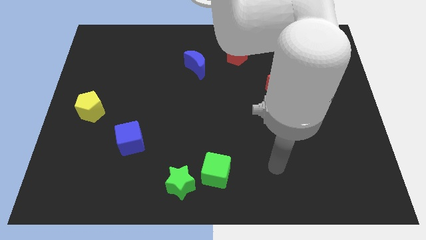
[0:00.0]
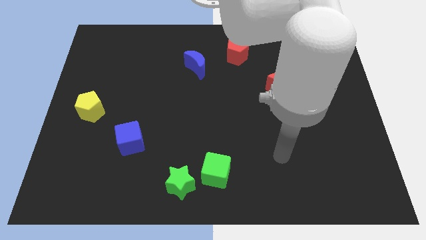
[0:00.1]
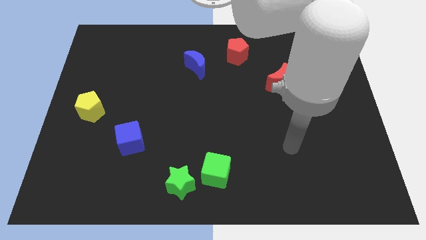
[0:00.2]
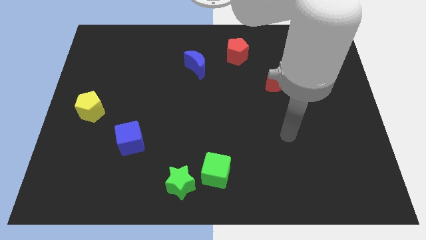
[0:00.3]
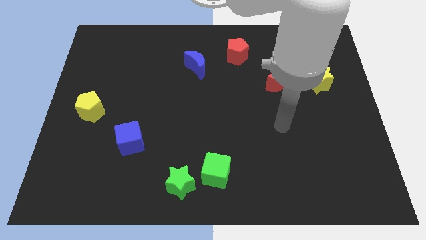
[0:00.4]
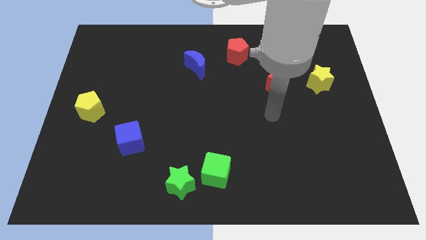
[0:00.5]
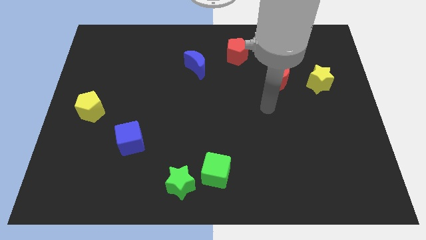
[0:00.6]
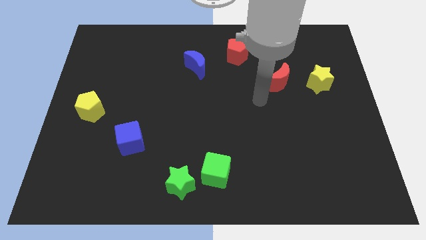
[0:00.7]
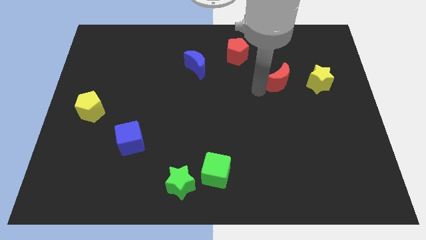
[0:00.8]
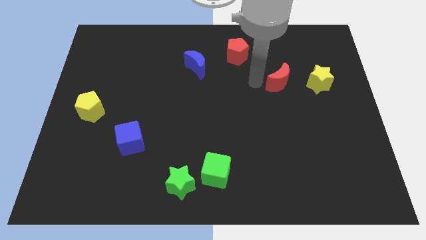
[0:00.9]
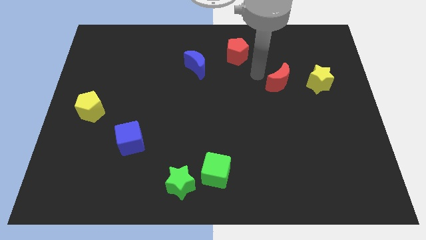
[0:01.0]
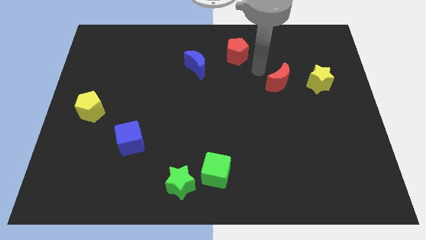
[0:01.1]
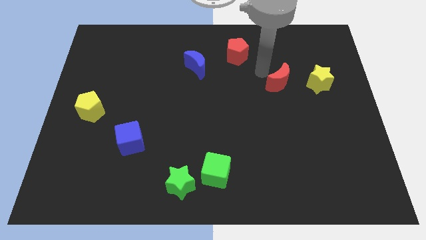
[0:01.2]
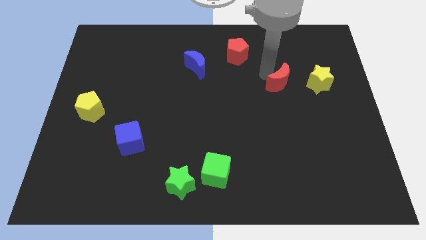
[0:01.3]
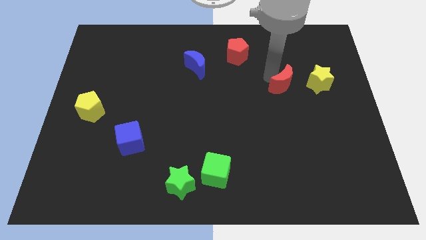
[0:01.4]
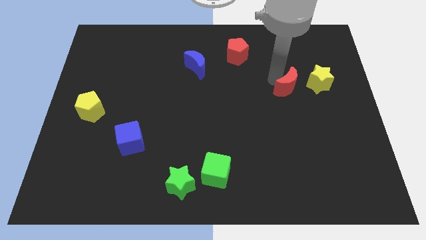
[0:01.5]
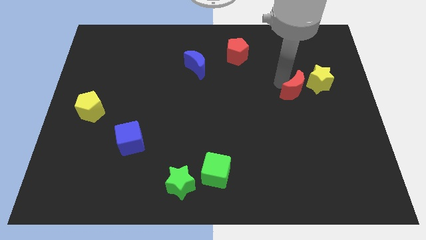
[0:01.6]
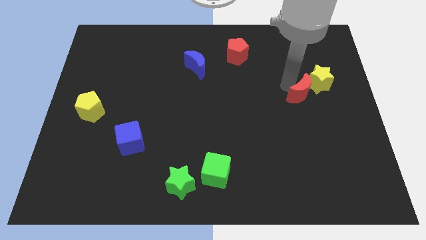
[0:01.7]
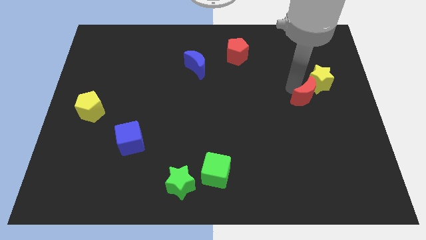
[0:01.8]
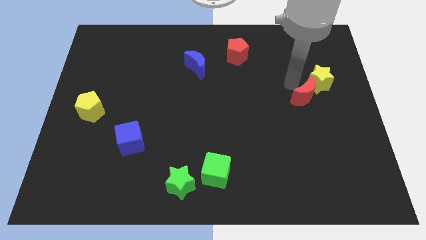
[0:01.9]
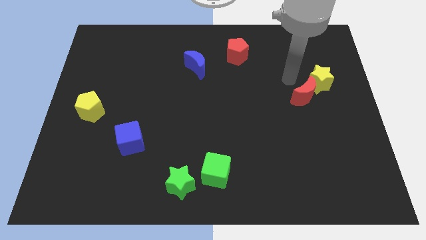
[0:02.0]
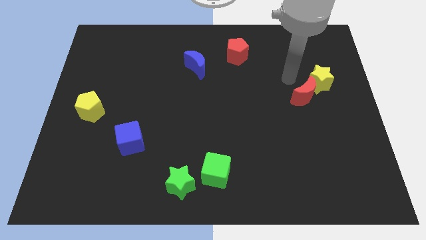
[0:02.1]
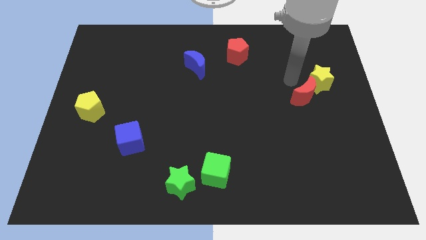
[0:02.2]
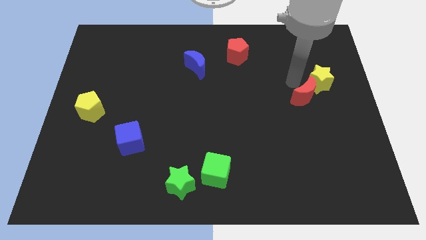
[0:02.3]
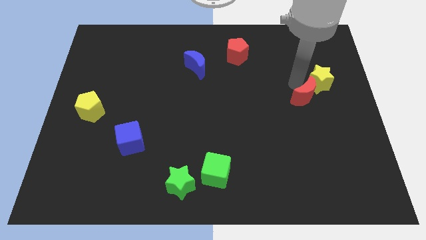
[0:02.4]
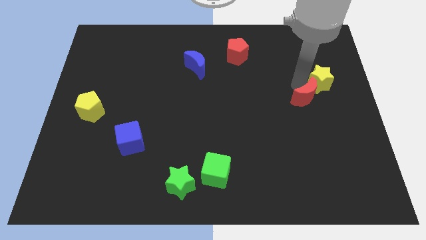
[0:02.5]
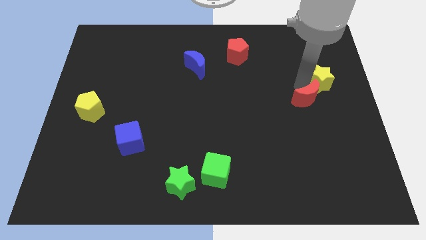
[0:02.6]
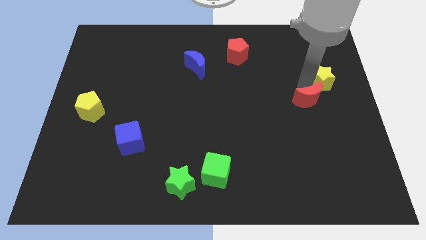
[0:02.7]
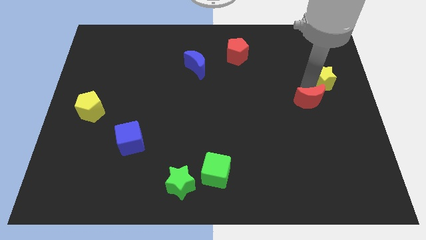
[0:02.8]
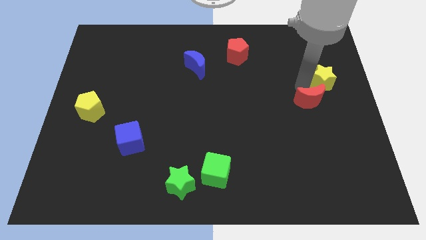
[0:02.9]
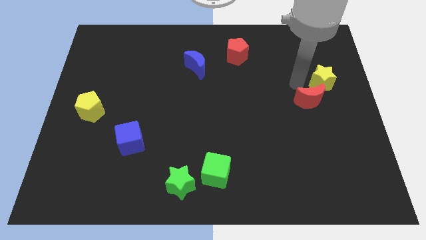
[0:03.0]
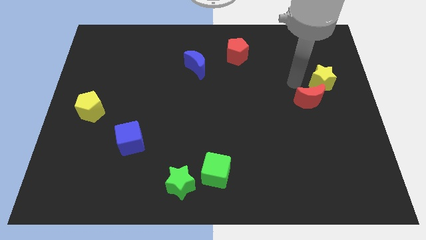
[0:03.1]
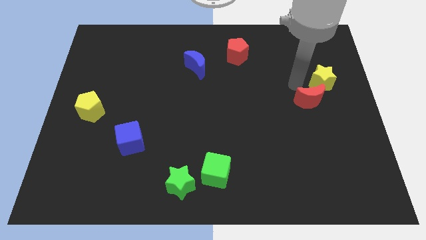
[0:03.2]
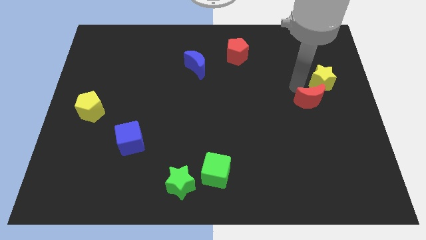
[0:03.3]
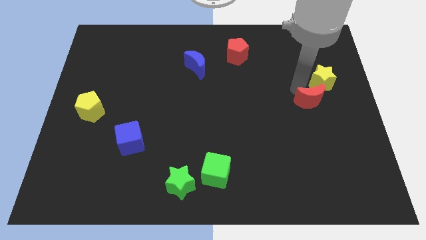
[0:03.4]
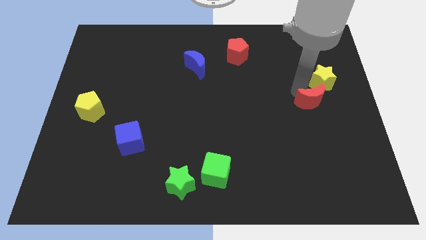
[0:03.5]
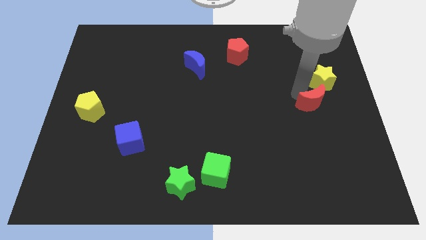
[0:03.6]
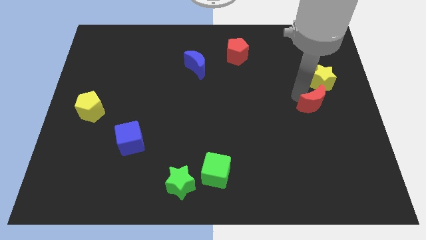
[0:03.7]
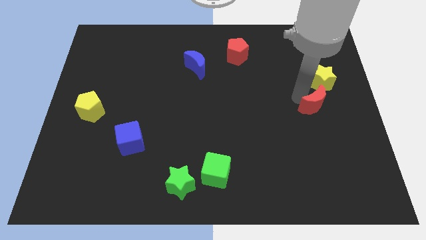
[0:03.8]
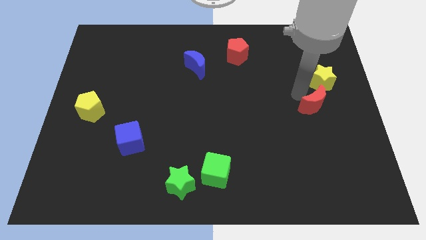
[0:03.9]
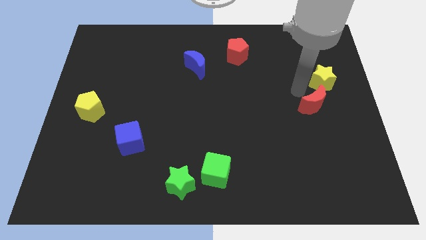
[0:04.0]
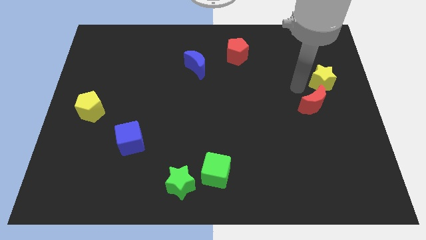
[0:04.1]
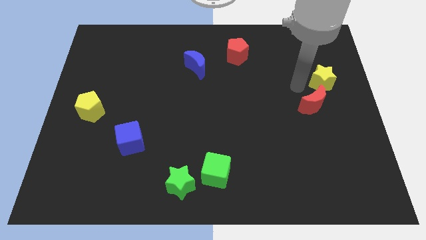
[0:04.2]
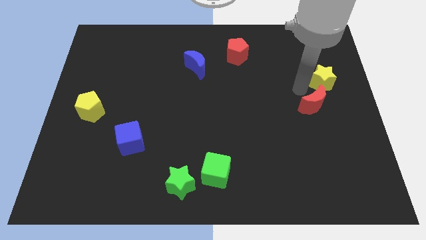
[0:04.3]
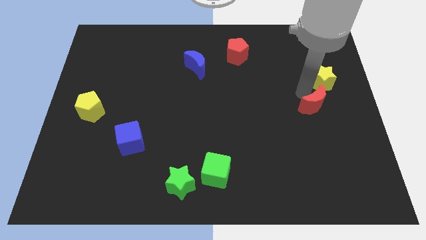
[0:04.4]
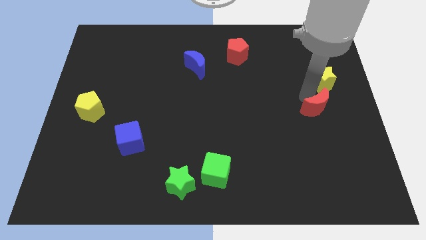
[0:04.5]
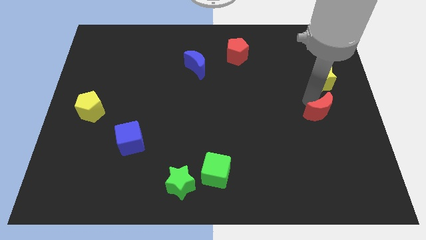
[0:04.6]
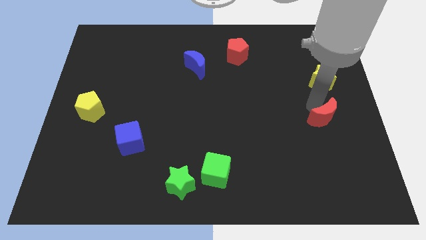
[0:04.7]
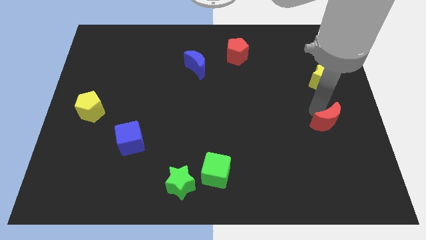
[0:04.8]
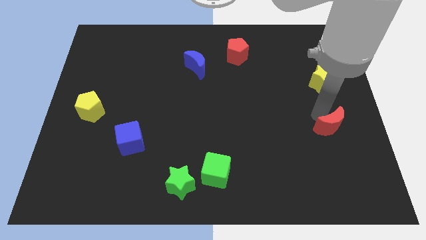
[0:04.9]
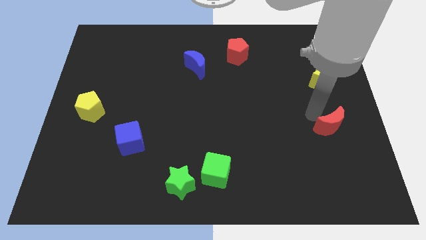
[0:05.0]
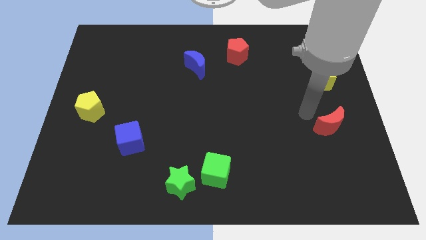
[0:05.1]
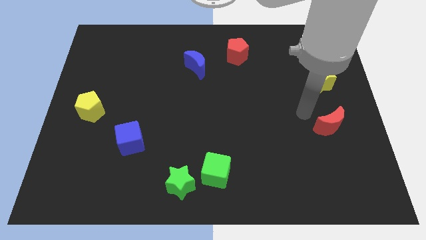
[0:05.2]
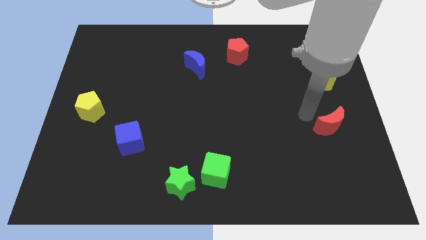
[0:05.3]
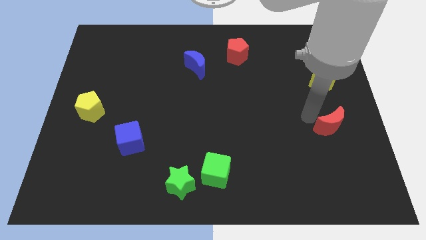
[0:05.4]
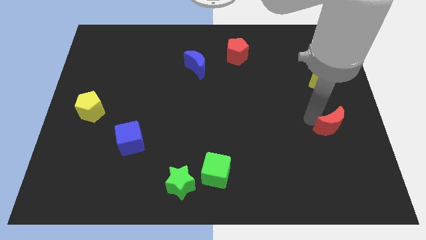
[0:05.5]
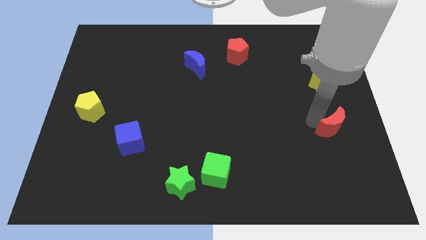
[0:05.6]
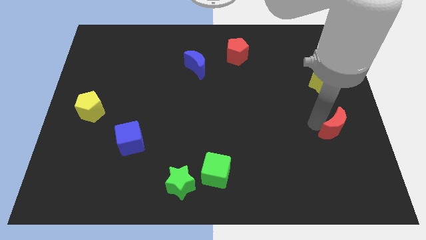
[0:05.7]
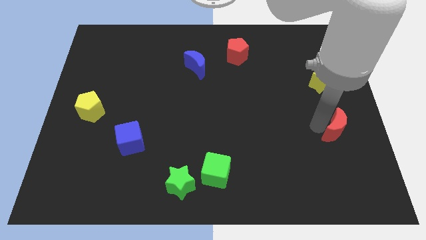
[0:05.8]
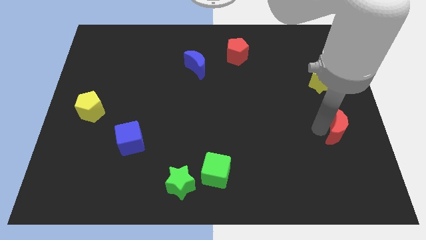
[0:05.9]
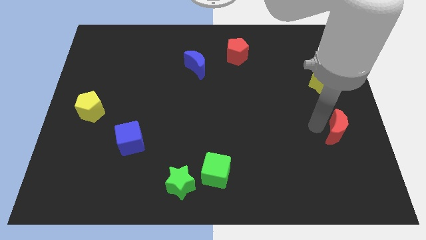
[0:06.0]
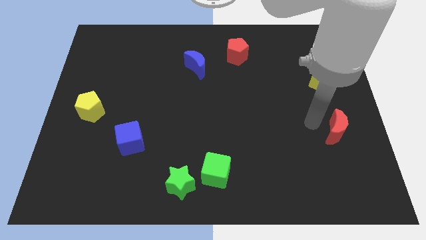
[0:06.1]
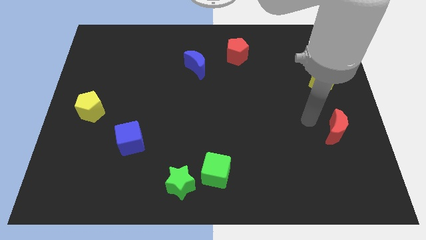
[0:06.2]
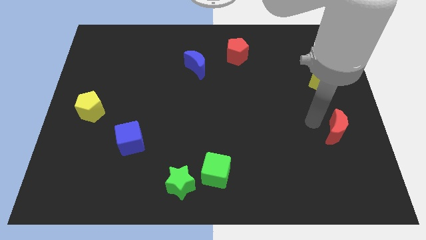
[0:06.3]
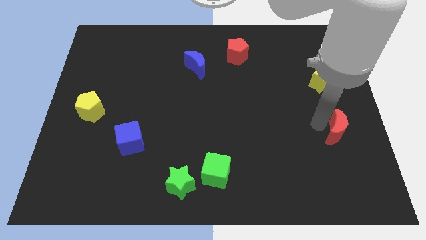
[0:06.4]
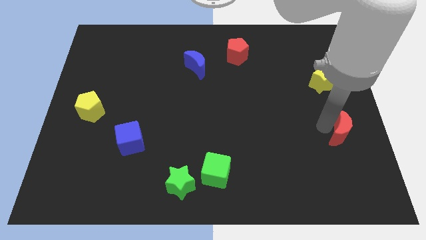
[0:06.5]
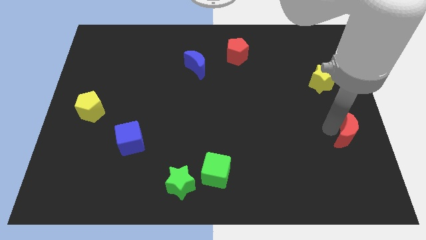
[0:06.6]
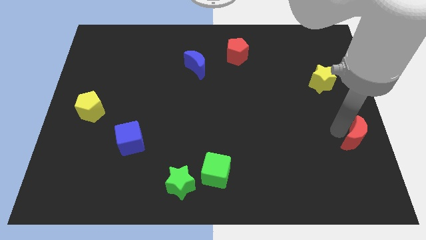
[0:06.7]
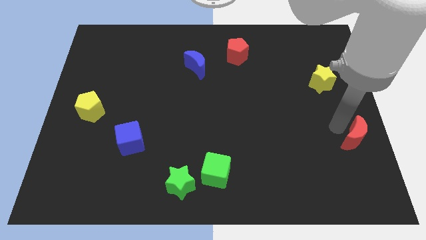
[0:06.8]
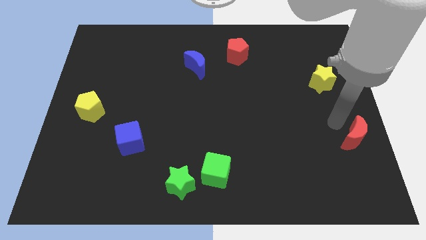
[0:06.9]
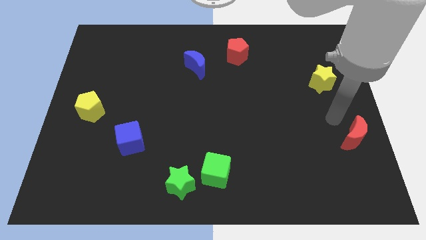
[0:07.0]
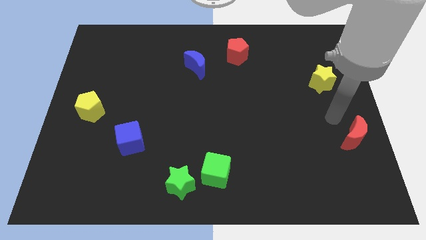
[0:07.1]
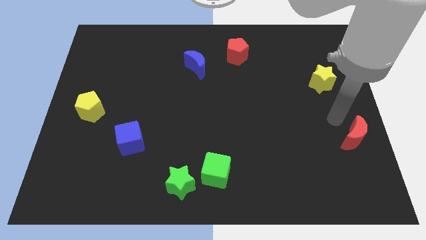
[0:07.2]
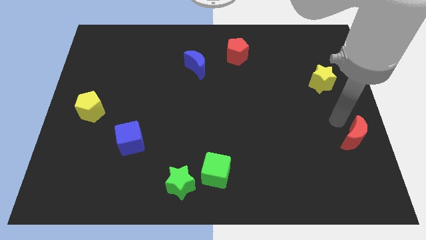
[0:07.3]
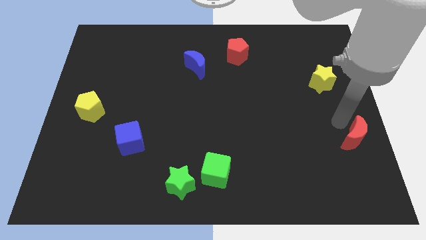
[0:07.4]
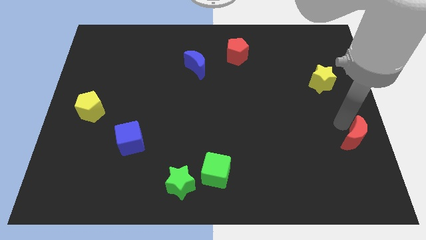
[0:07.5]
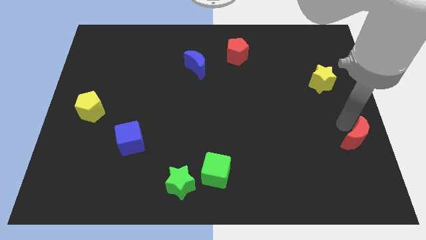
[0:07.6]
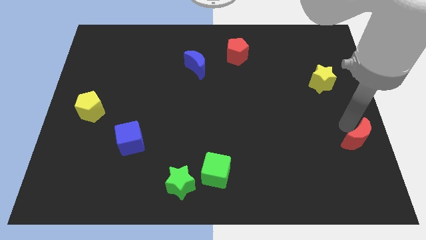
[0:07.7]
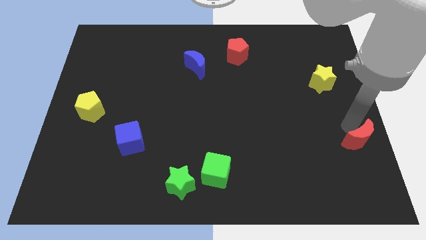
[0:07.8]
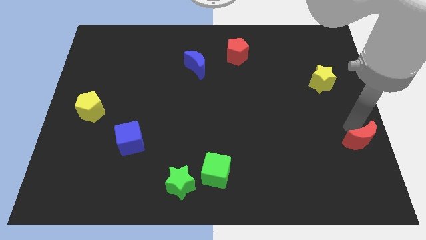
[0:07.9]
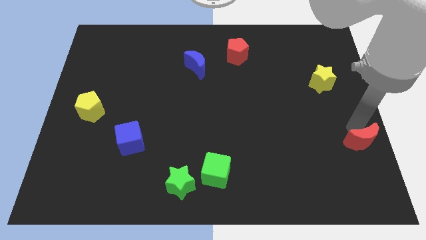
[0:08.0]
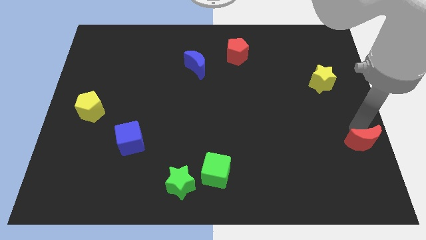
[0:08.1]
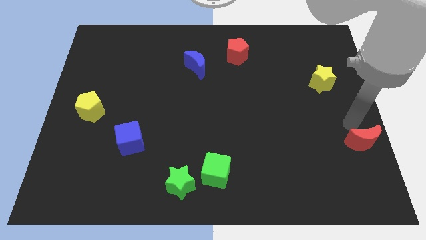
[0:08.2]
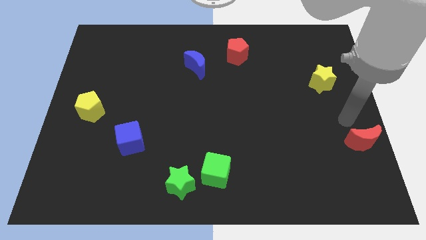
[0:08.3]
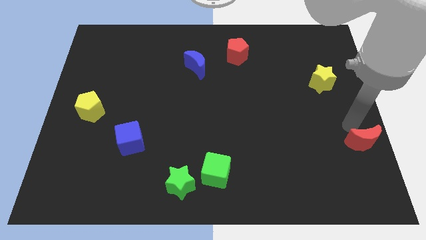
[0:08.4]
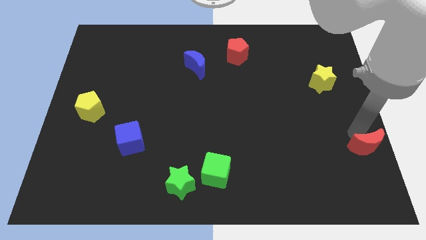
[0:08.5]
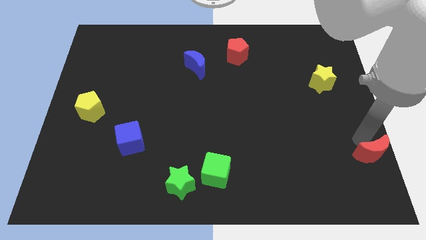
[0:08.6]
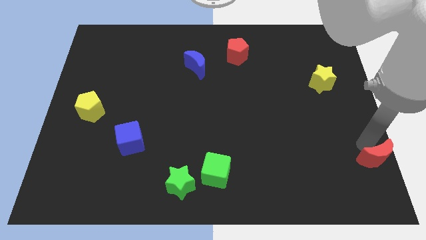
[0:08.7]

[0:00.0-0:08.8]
put the red moon to the bottom right corner
